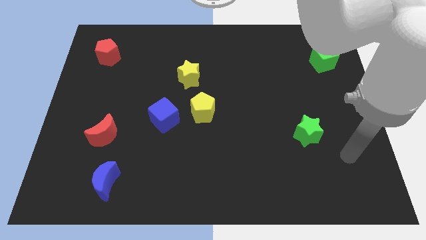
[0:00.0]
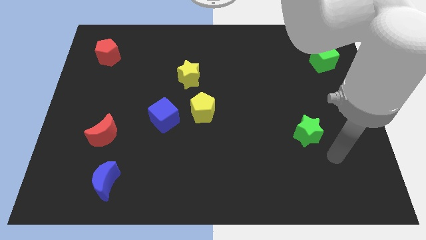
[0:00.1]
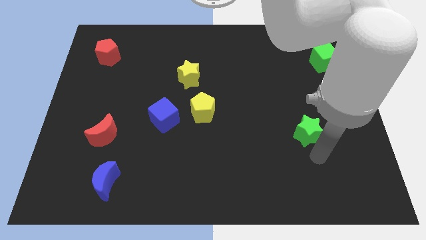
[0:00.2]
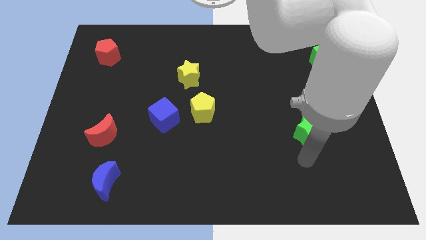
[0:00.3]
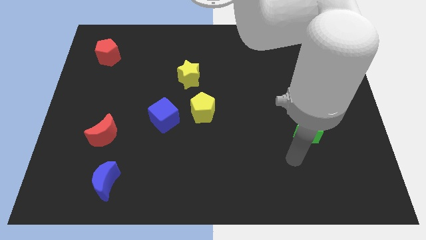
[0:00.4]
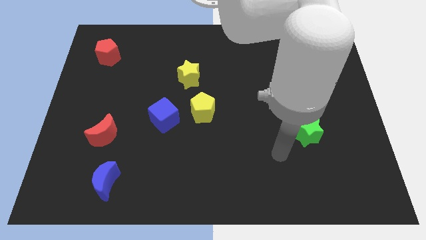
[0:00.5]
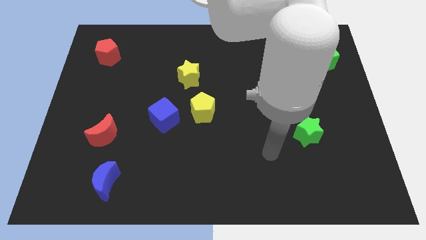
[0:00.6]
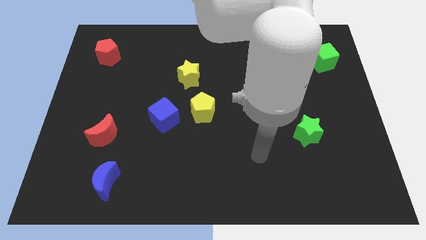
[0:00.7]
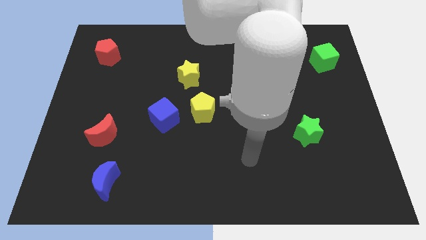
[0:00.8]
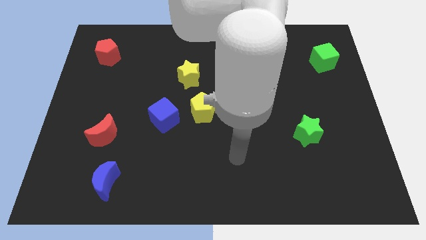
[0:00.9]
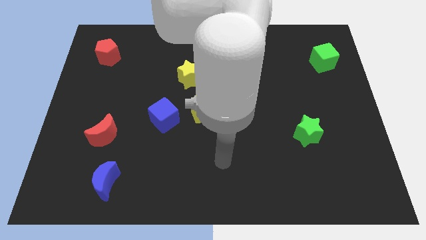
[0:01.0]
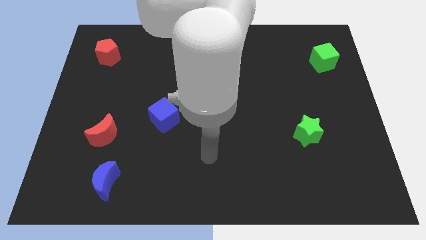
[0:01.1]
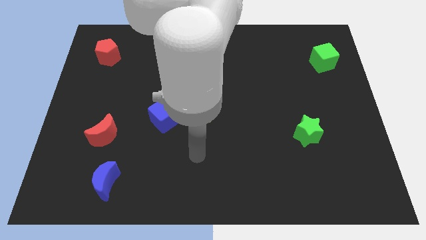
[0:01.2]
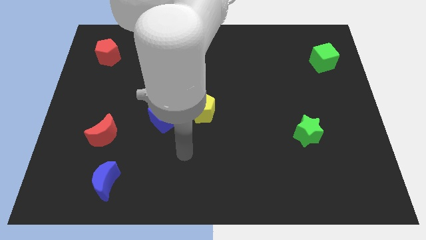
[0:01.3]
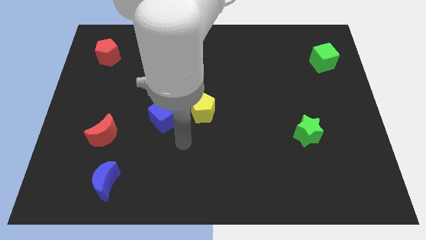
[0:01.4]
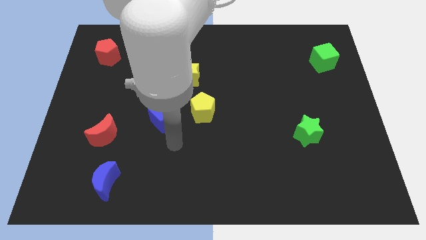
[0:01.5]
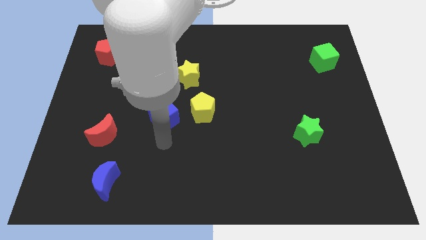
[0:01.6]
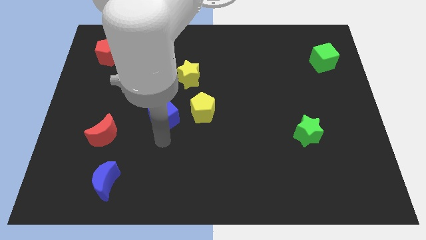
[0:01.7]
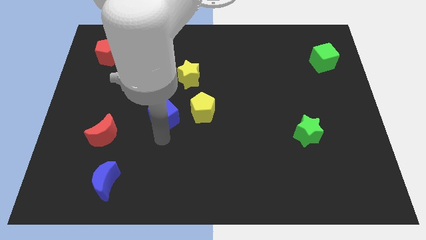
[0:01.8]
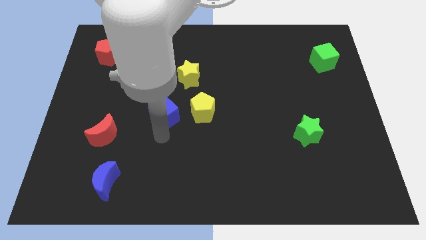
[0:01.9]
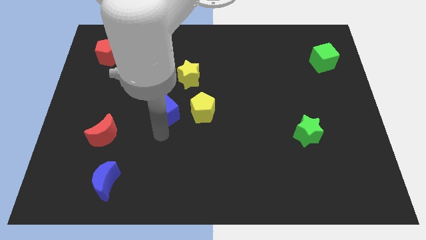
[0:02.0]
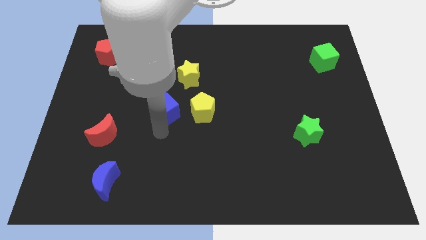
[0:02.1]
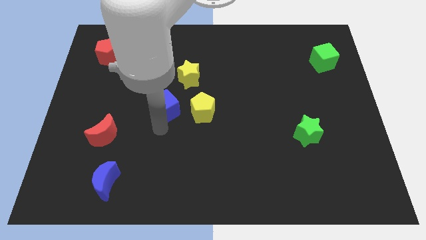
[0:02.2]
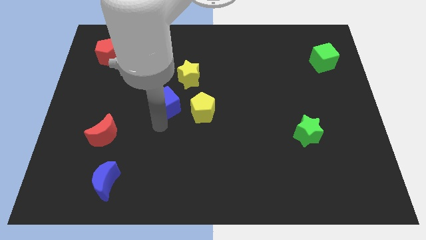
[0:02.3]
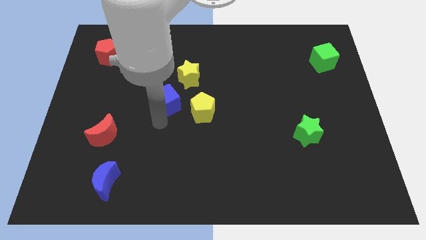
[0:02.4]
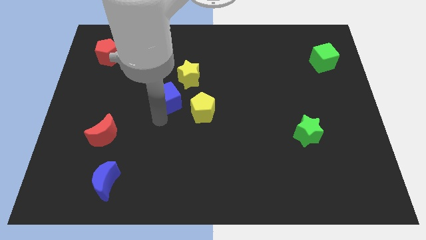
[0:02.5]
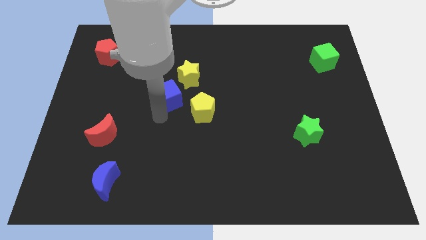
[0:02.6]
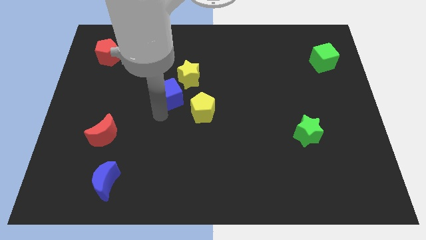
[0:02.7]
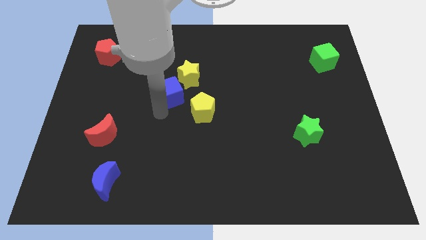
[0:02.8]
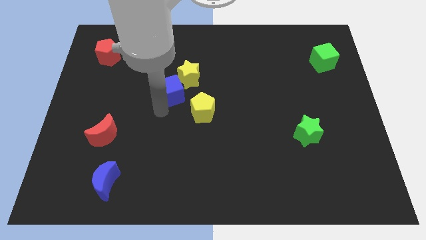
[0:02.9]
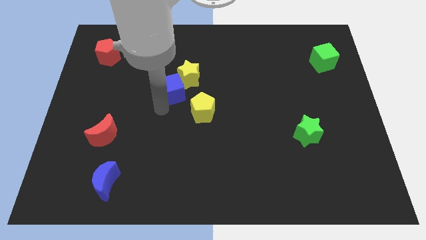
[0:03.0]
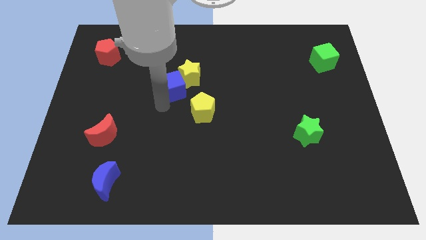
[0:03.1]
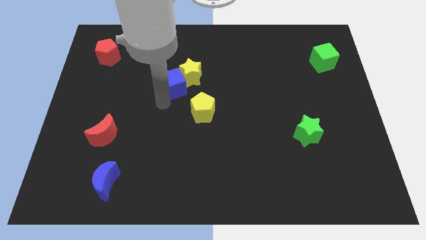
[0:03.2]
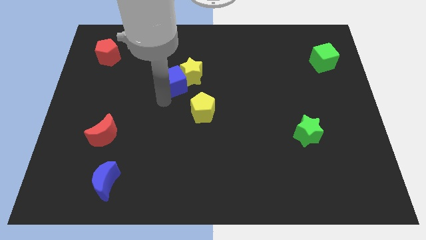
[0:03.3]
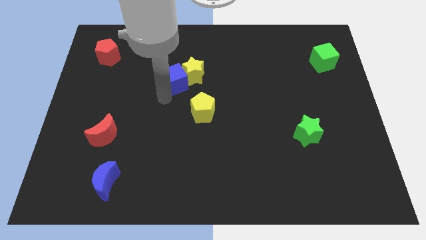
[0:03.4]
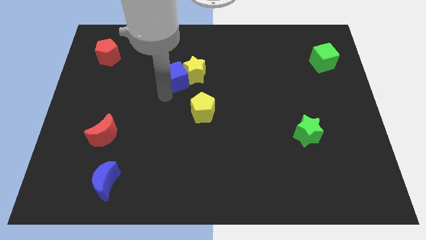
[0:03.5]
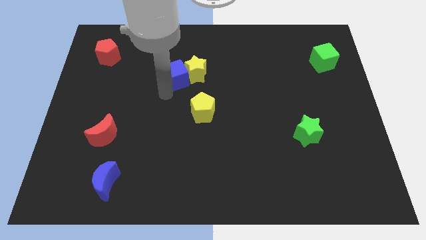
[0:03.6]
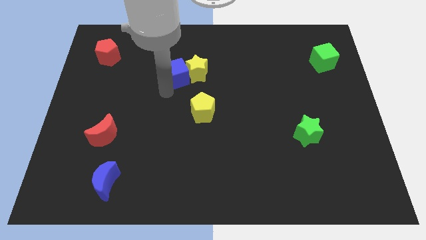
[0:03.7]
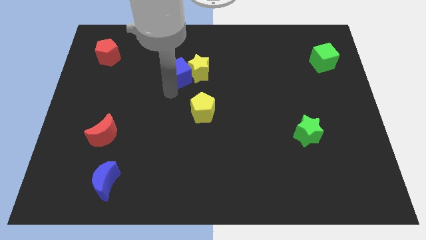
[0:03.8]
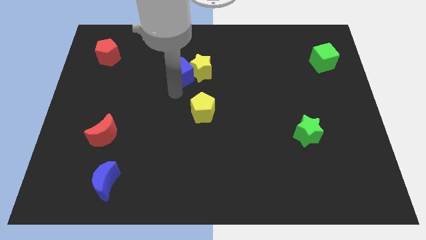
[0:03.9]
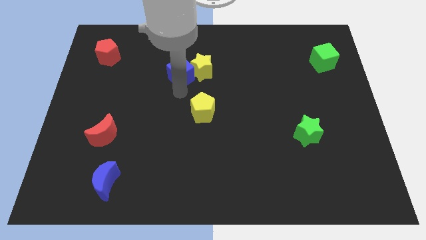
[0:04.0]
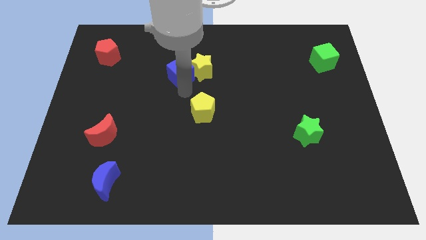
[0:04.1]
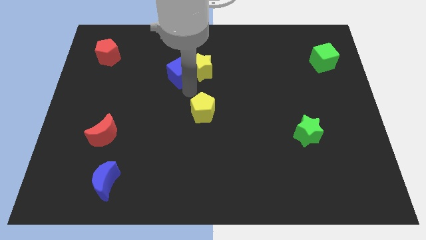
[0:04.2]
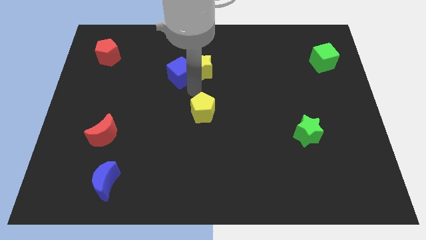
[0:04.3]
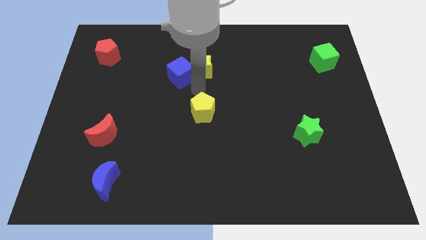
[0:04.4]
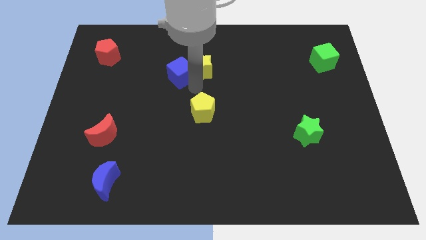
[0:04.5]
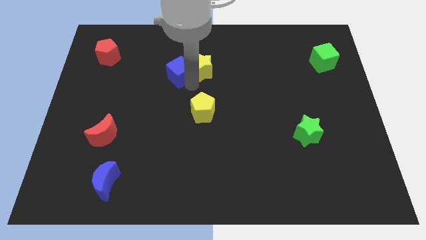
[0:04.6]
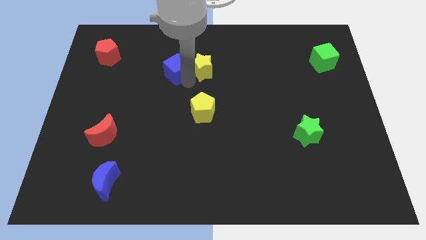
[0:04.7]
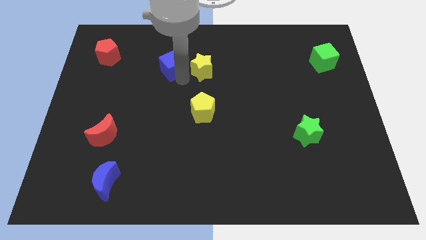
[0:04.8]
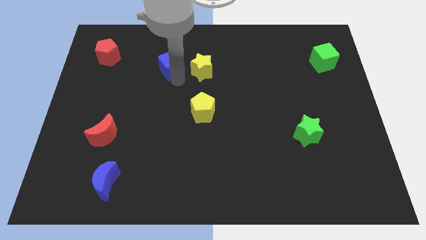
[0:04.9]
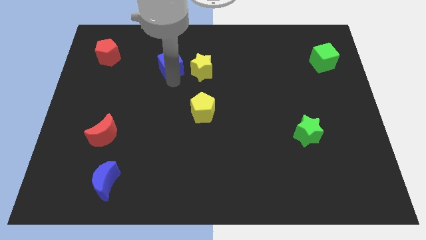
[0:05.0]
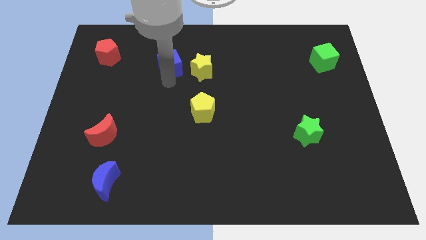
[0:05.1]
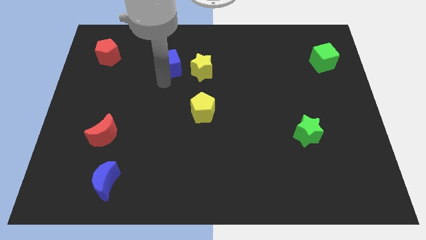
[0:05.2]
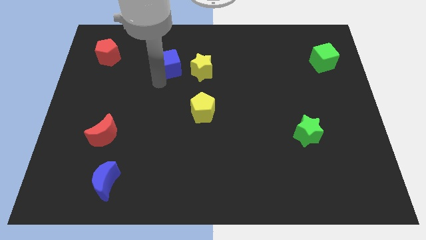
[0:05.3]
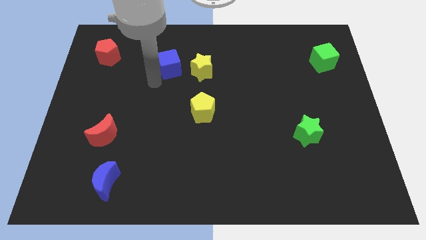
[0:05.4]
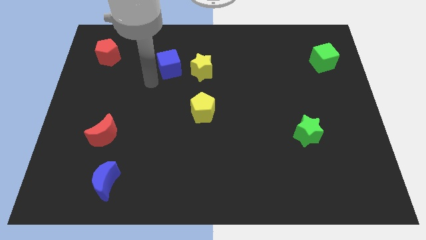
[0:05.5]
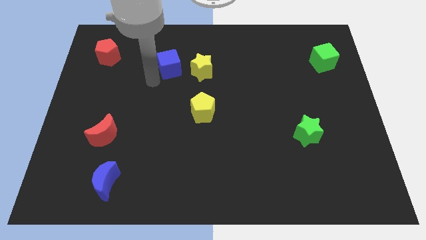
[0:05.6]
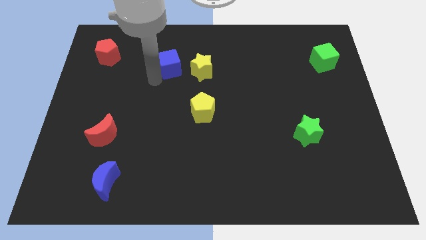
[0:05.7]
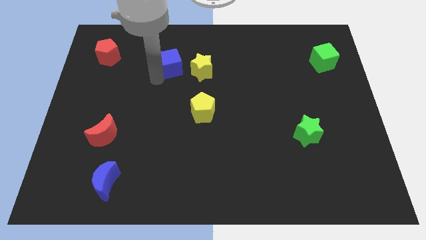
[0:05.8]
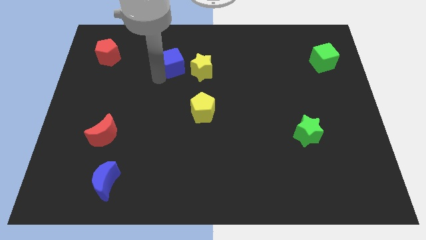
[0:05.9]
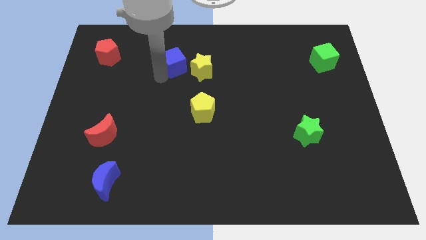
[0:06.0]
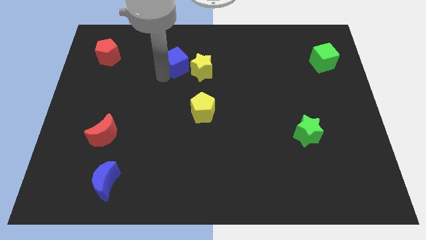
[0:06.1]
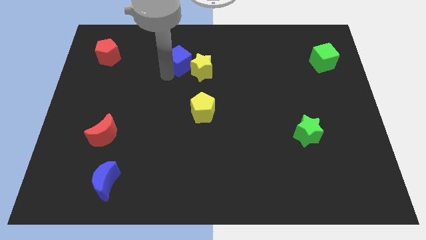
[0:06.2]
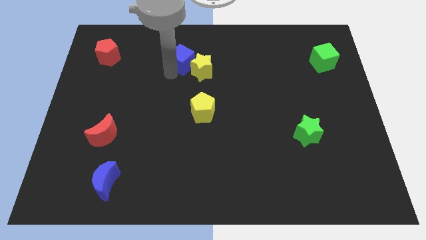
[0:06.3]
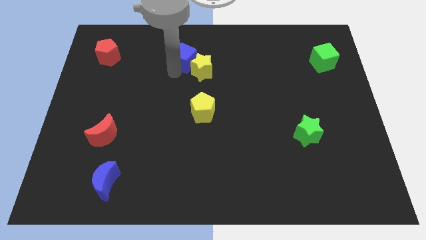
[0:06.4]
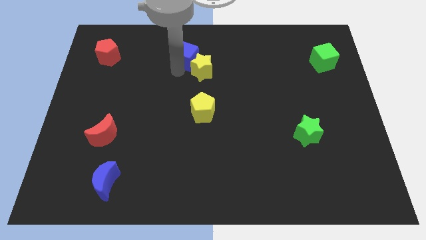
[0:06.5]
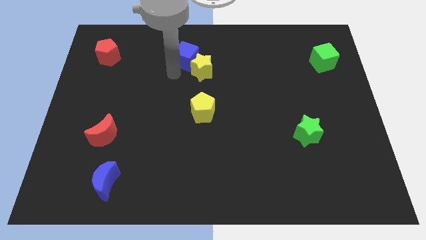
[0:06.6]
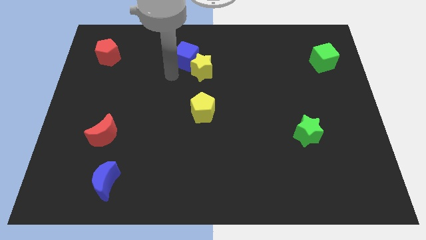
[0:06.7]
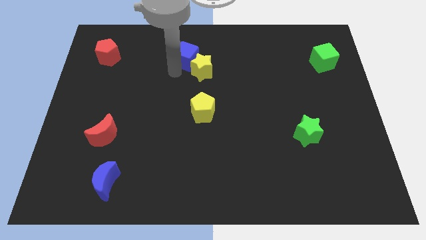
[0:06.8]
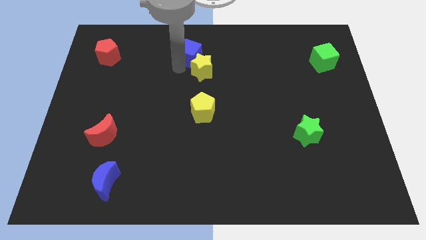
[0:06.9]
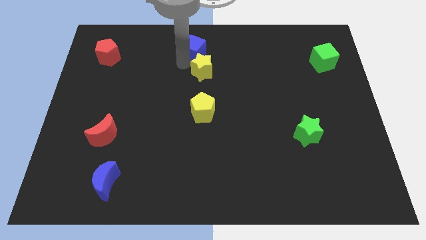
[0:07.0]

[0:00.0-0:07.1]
move the blue cube to the top

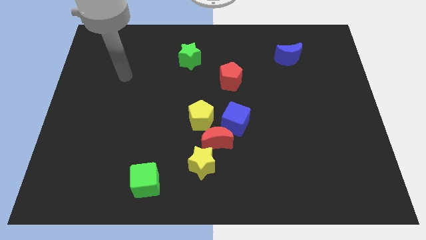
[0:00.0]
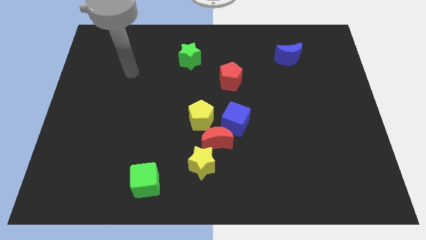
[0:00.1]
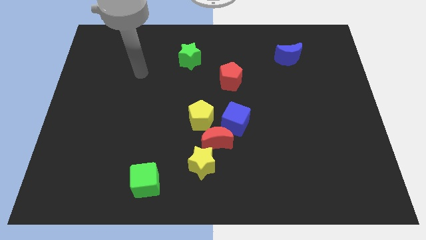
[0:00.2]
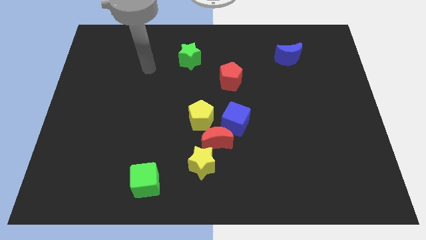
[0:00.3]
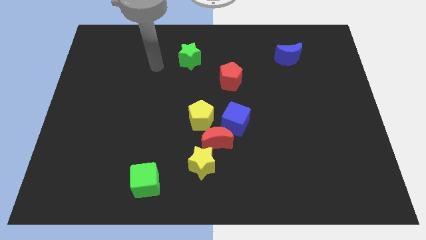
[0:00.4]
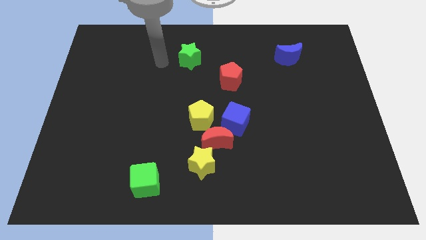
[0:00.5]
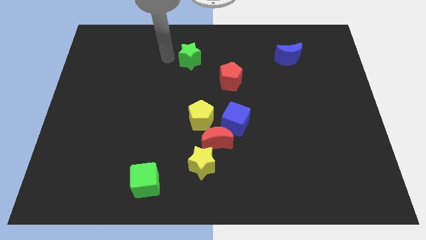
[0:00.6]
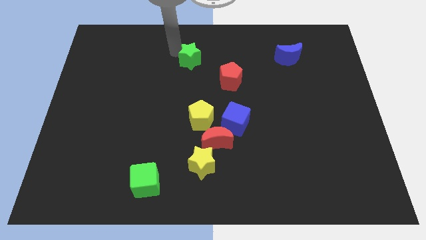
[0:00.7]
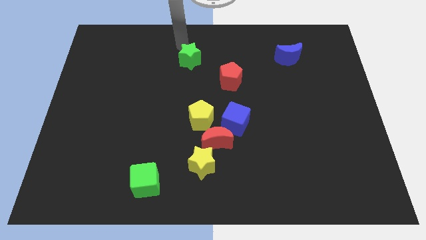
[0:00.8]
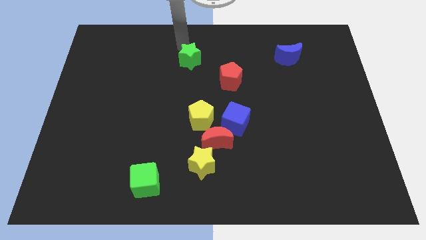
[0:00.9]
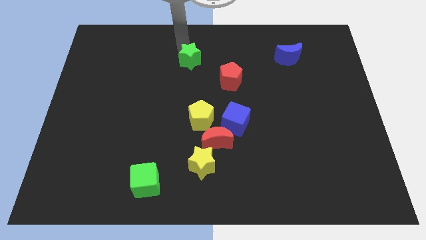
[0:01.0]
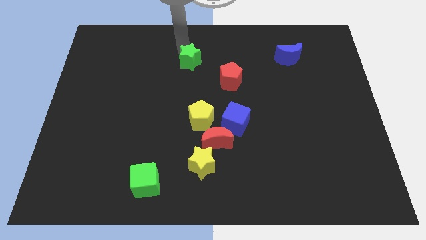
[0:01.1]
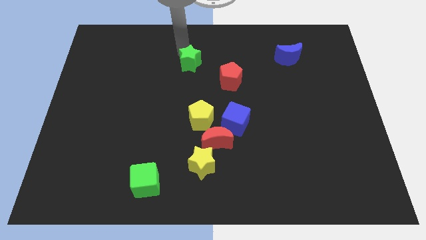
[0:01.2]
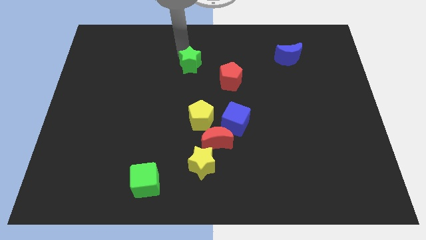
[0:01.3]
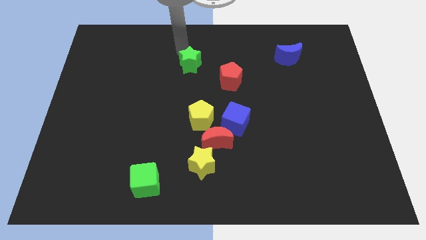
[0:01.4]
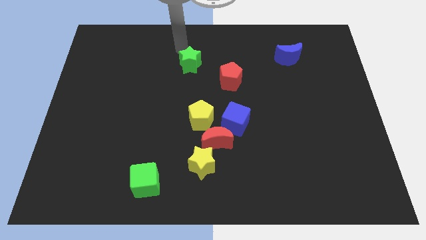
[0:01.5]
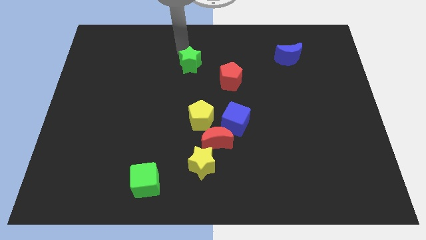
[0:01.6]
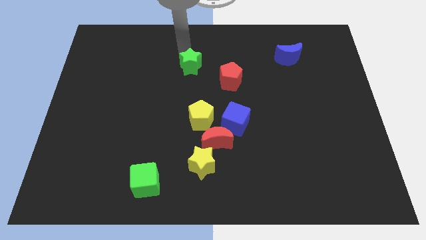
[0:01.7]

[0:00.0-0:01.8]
push the green star to the center of the board
